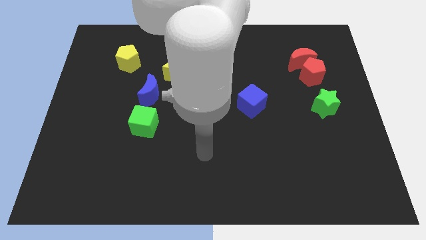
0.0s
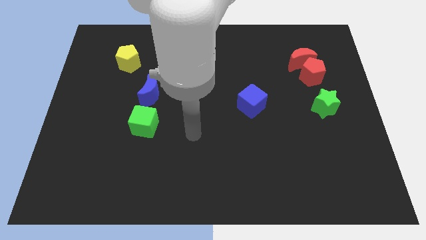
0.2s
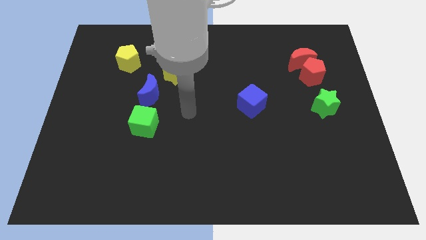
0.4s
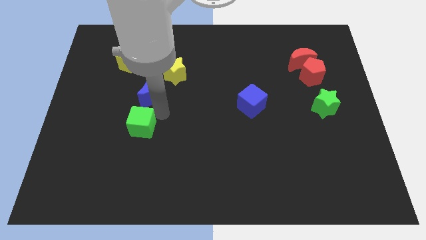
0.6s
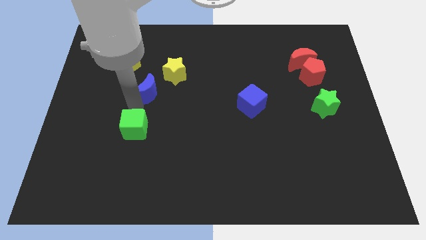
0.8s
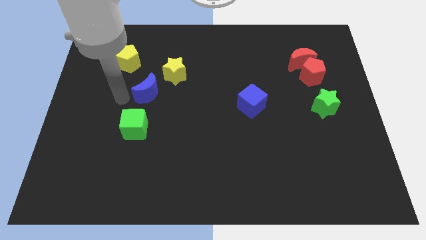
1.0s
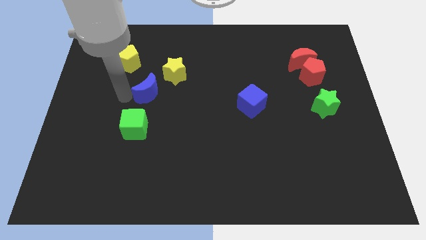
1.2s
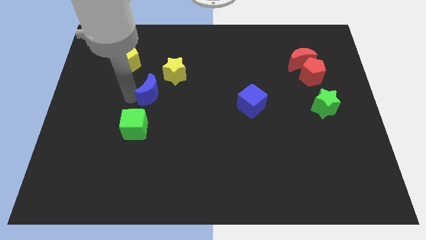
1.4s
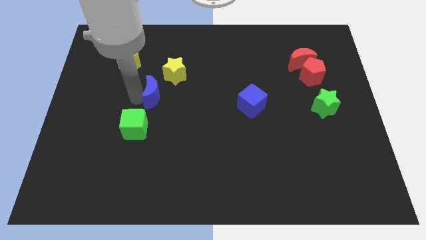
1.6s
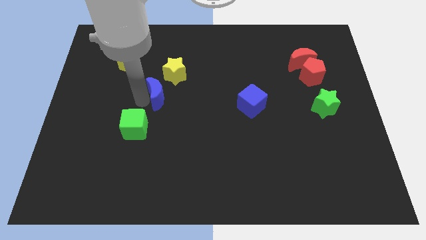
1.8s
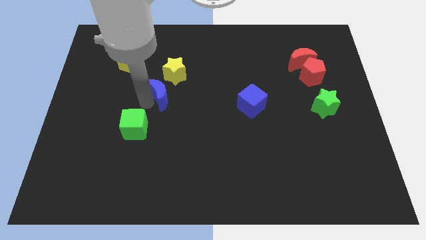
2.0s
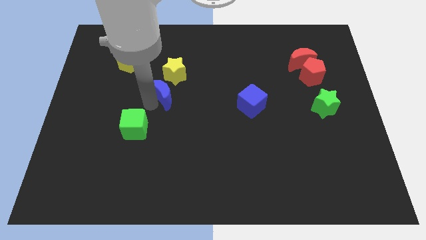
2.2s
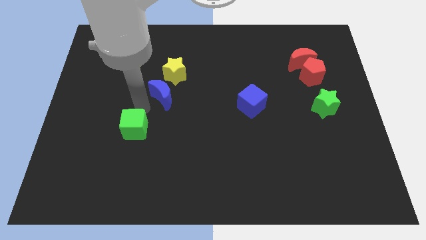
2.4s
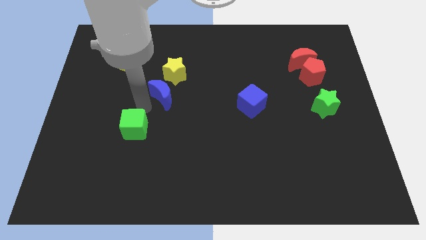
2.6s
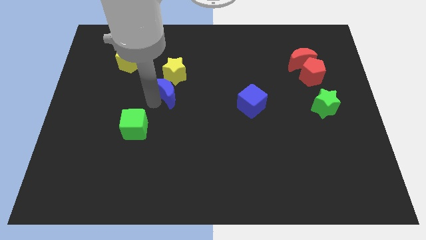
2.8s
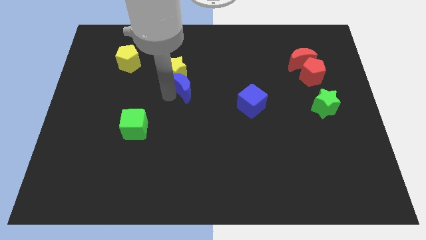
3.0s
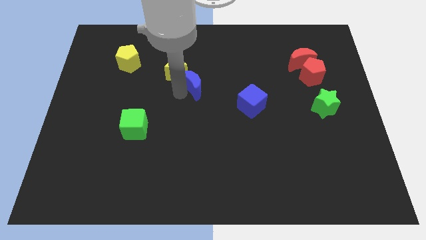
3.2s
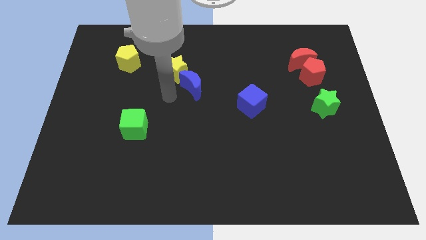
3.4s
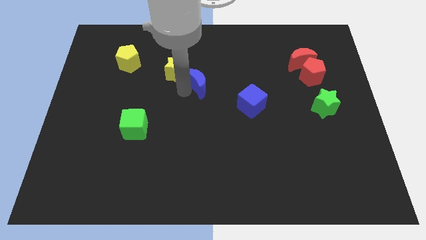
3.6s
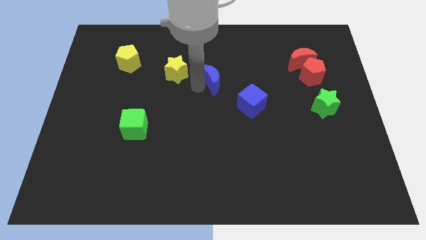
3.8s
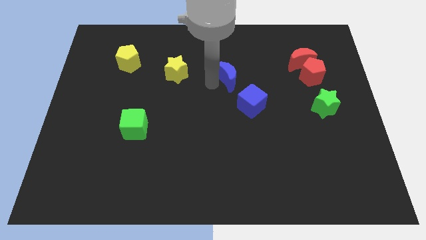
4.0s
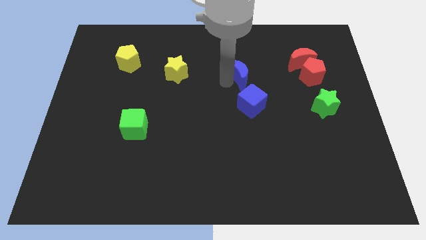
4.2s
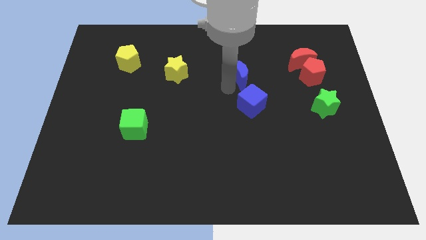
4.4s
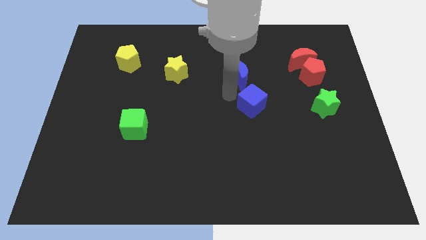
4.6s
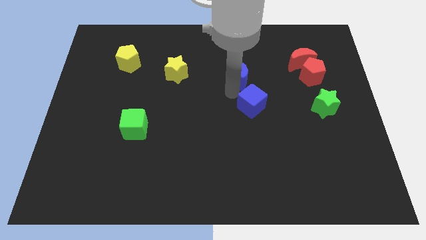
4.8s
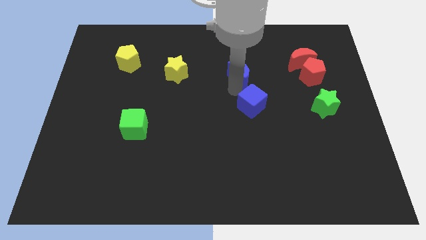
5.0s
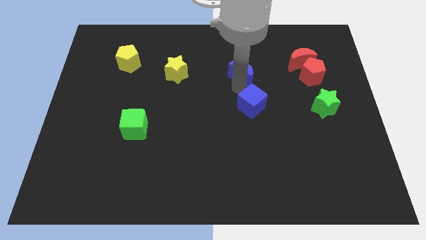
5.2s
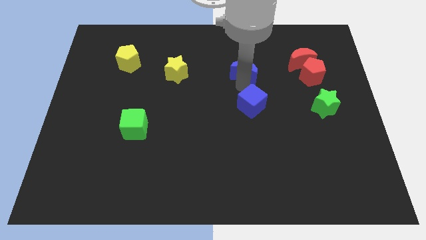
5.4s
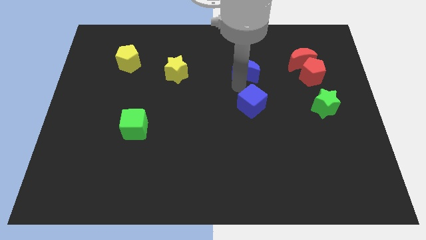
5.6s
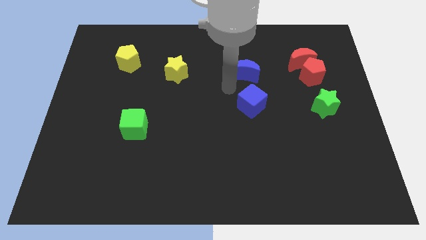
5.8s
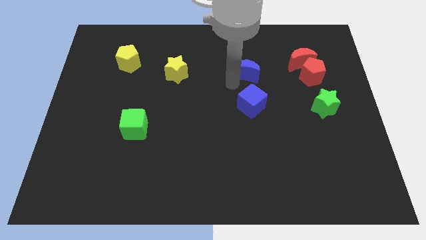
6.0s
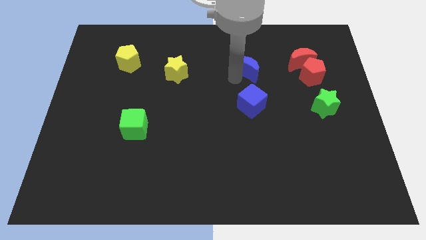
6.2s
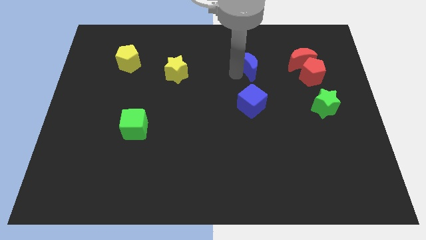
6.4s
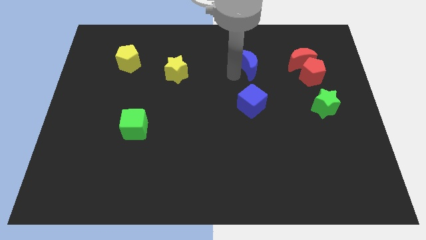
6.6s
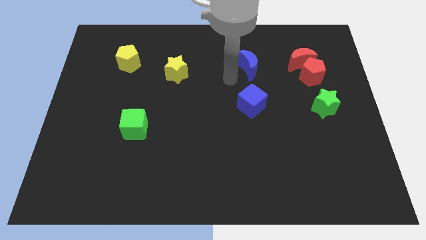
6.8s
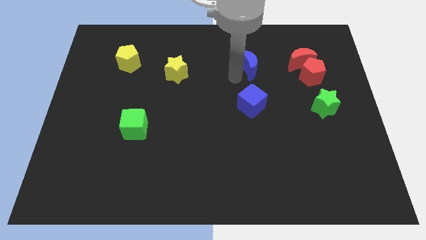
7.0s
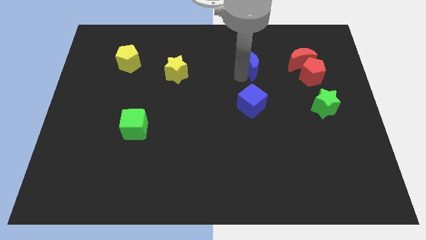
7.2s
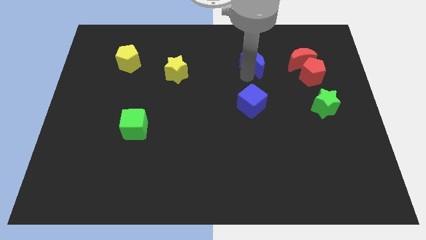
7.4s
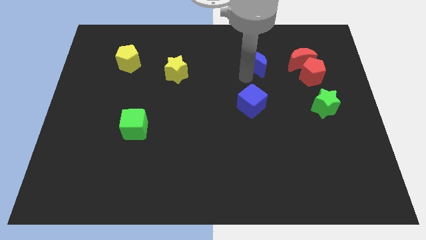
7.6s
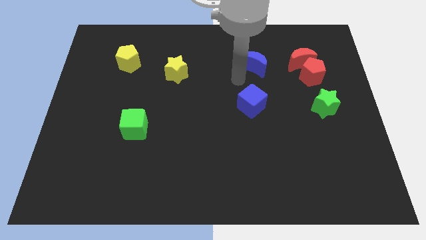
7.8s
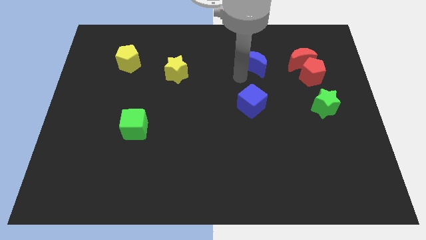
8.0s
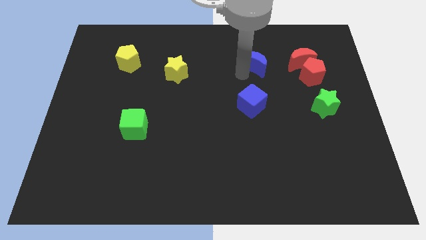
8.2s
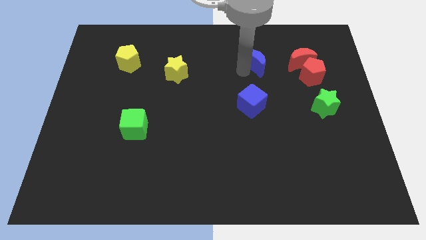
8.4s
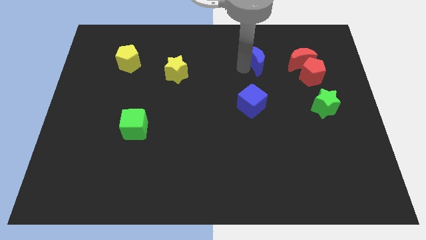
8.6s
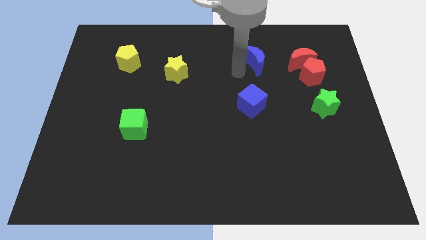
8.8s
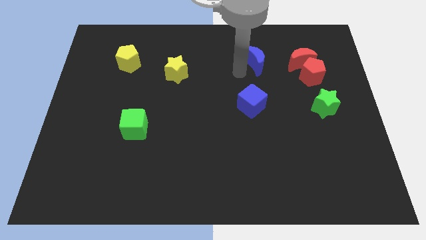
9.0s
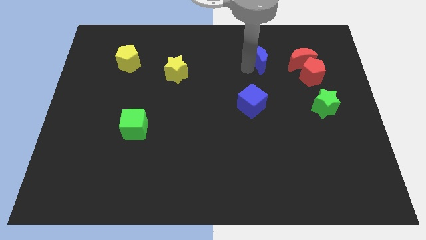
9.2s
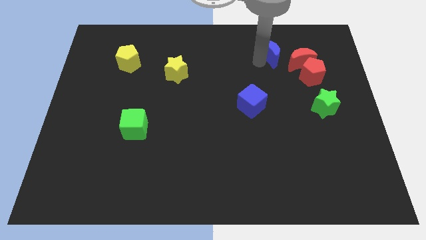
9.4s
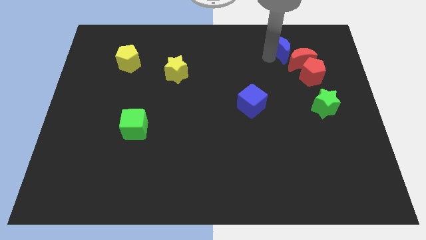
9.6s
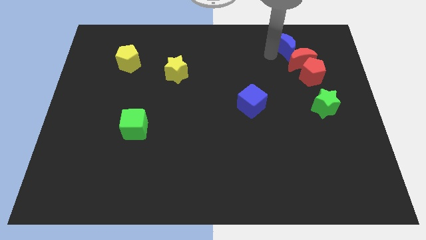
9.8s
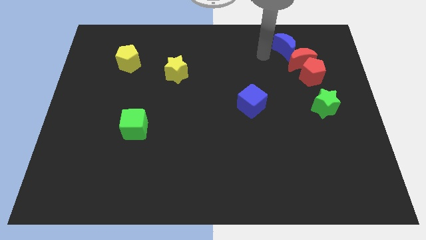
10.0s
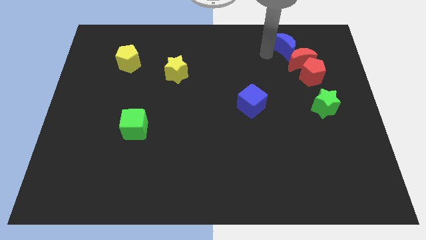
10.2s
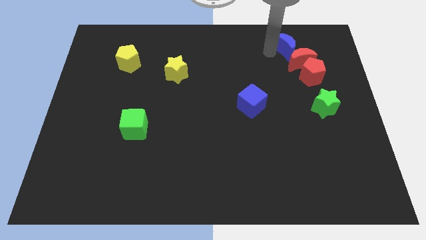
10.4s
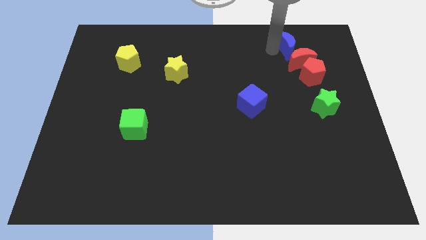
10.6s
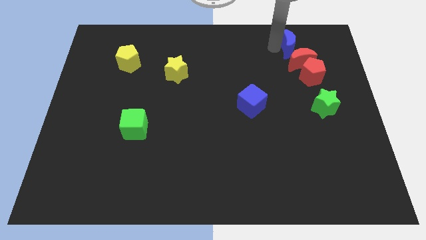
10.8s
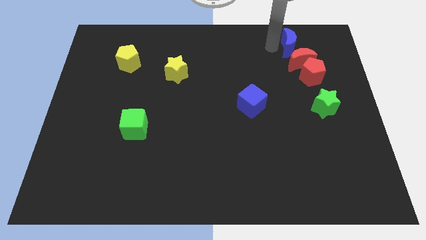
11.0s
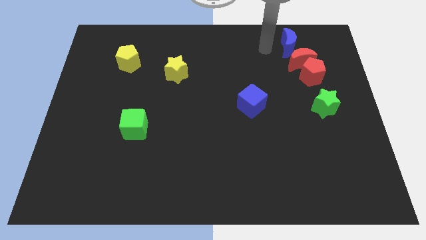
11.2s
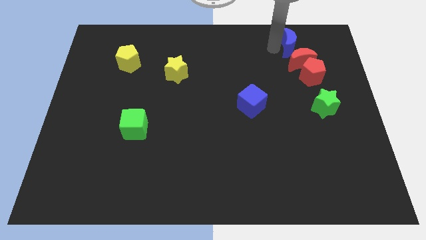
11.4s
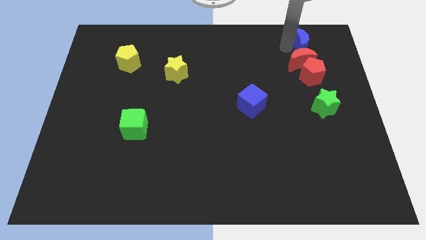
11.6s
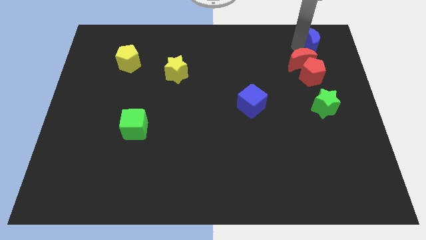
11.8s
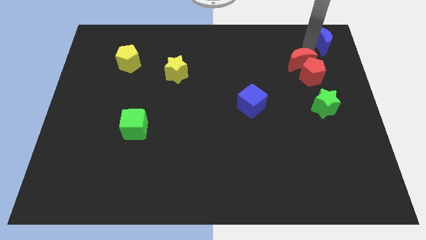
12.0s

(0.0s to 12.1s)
move the blue moon to the upper right corner

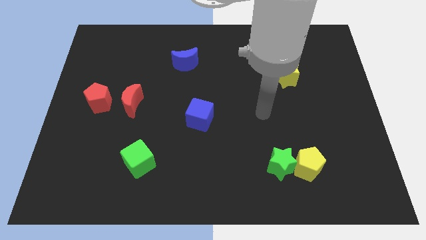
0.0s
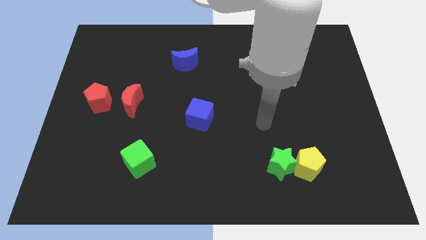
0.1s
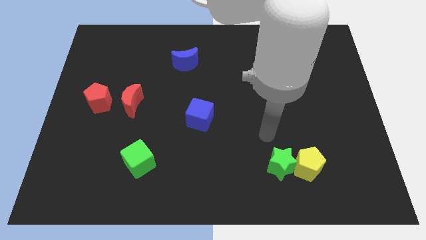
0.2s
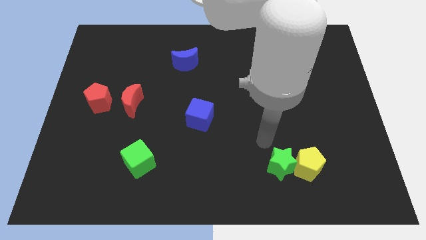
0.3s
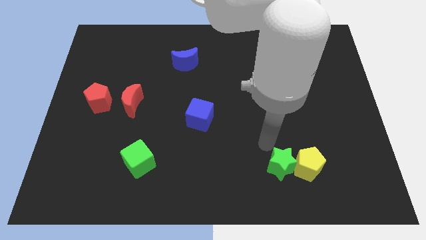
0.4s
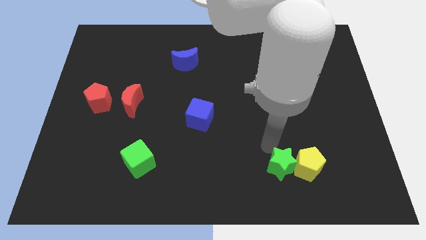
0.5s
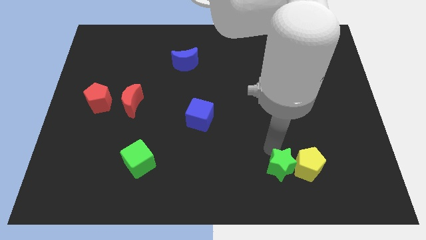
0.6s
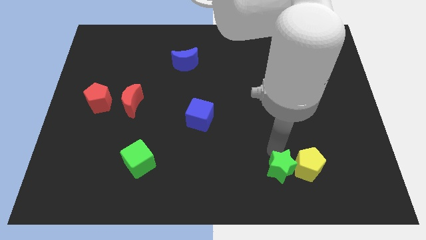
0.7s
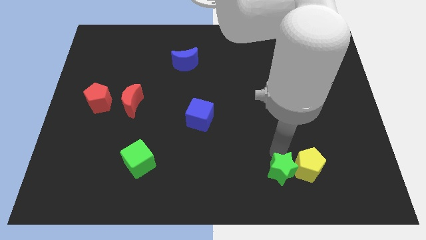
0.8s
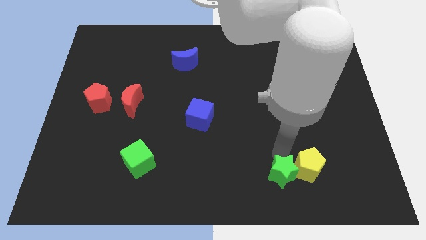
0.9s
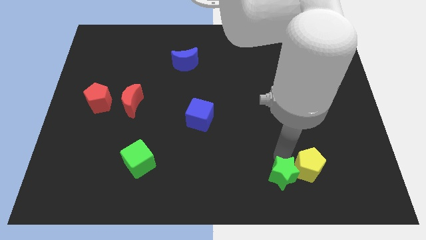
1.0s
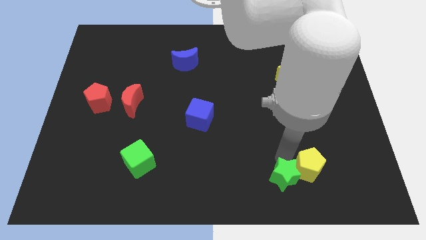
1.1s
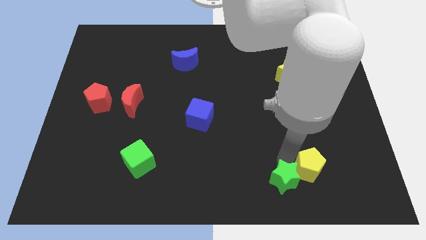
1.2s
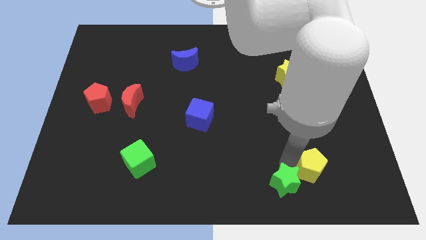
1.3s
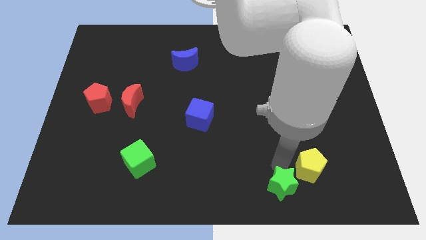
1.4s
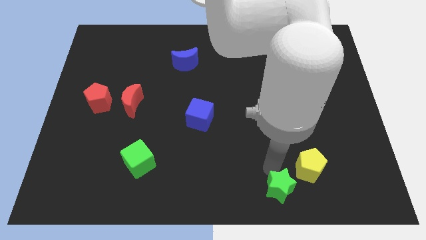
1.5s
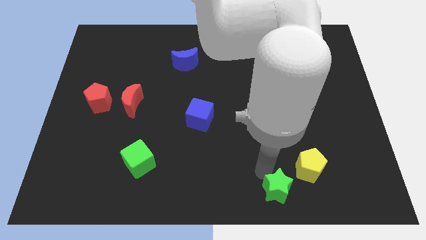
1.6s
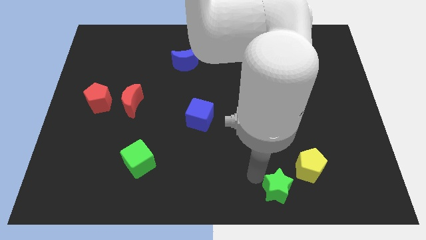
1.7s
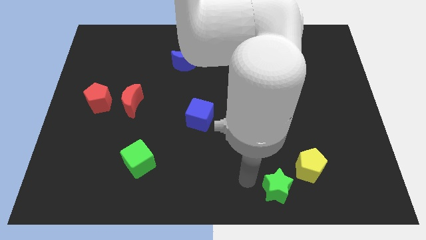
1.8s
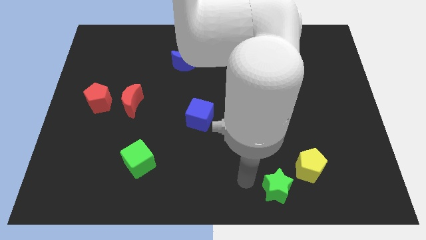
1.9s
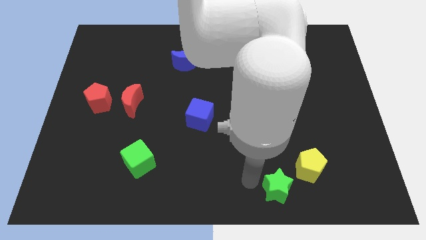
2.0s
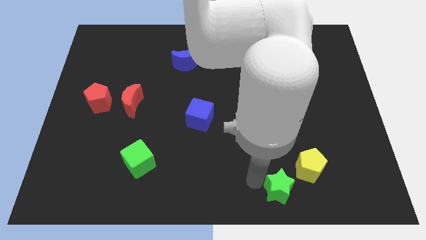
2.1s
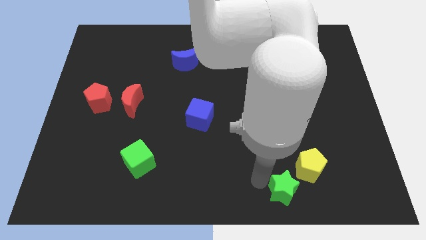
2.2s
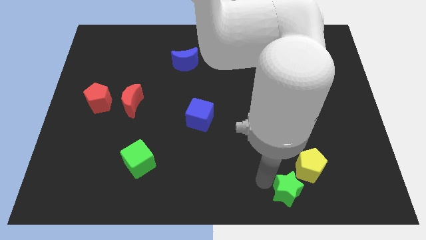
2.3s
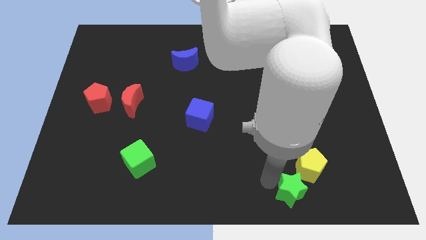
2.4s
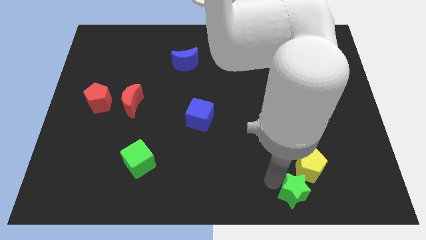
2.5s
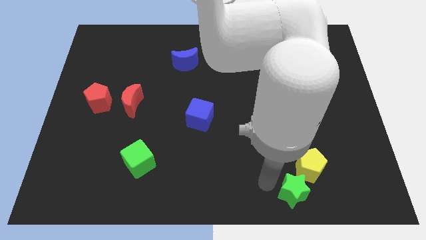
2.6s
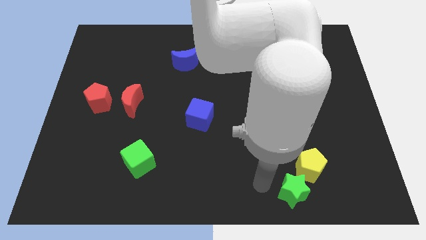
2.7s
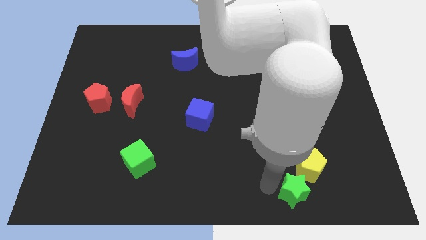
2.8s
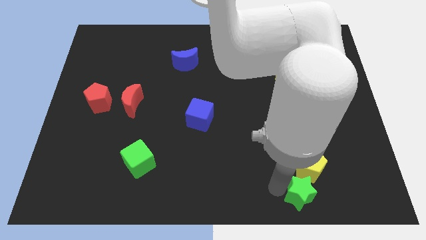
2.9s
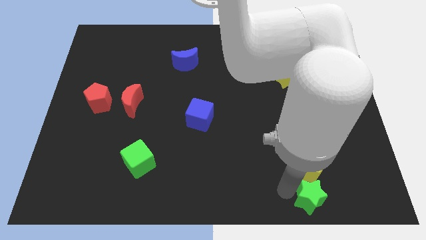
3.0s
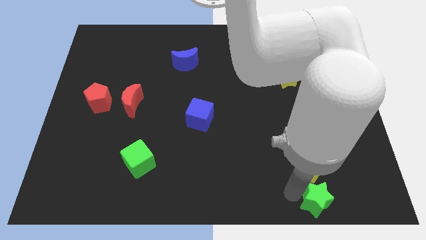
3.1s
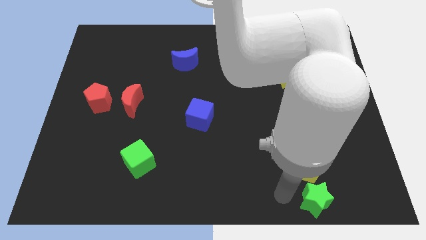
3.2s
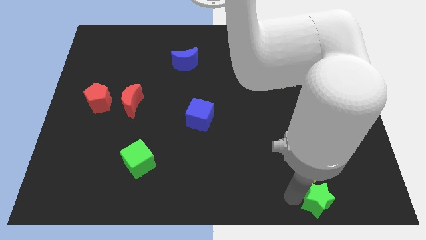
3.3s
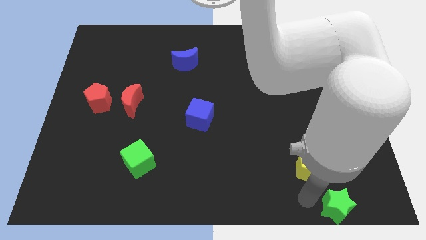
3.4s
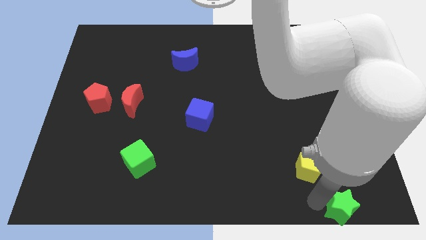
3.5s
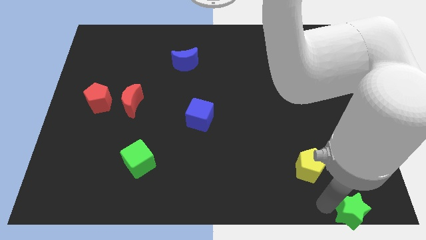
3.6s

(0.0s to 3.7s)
slide the green star to the bottom right corner
